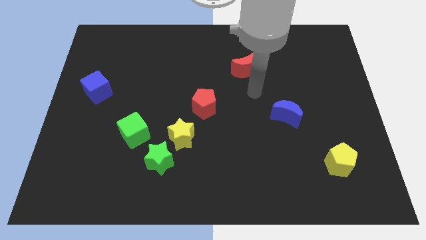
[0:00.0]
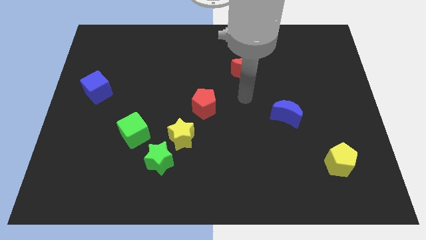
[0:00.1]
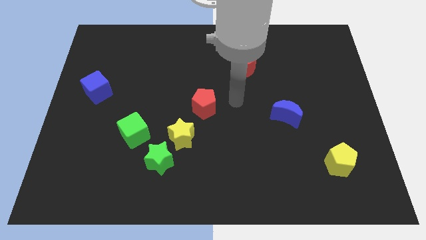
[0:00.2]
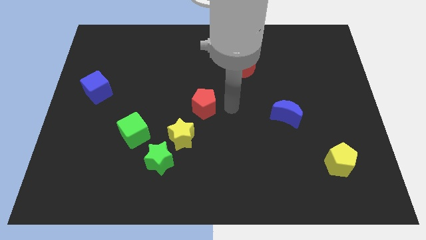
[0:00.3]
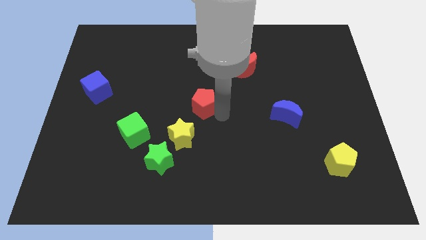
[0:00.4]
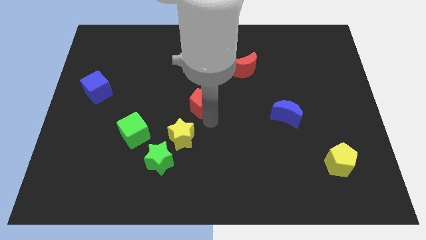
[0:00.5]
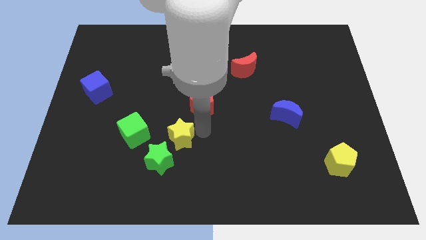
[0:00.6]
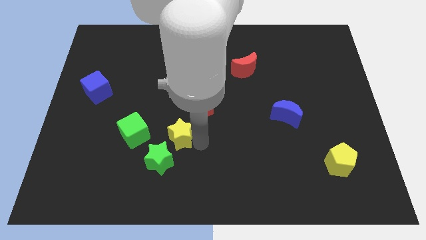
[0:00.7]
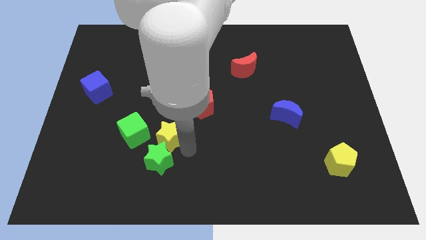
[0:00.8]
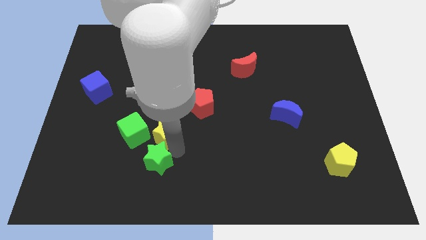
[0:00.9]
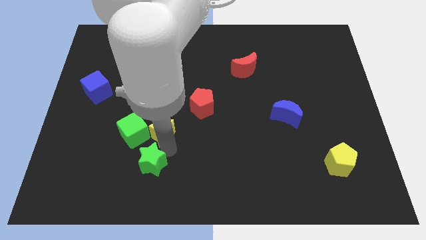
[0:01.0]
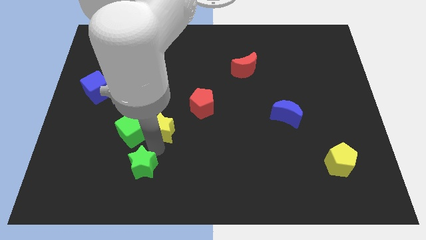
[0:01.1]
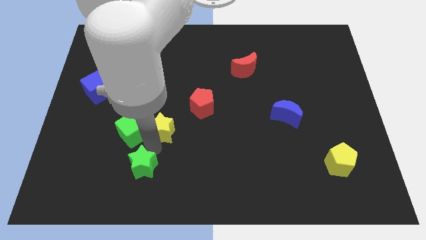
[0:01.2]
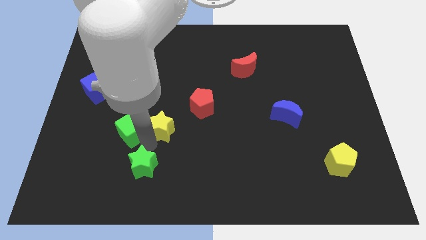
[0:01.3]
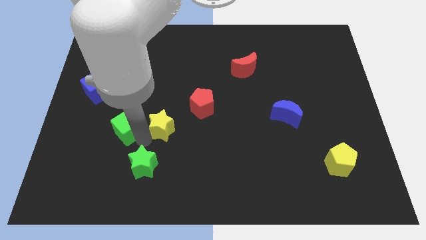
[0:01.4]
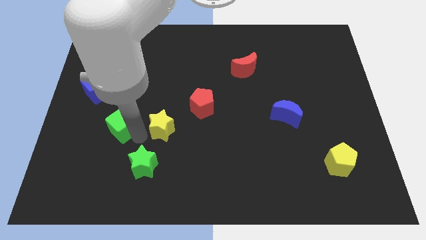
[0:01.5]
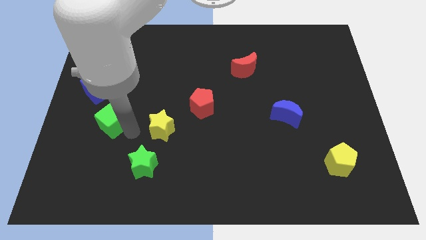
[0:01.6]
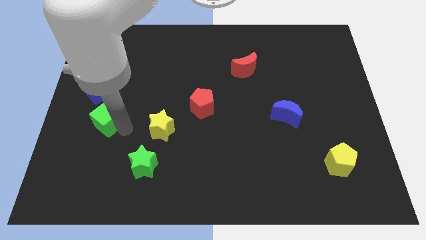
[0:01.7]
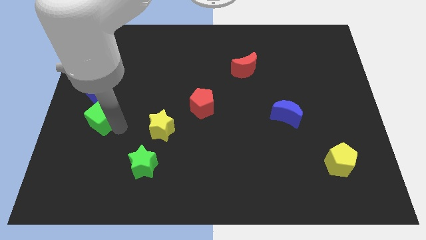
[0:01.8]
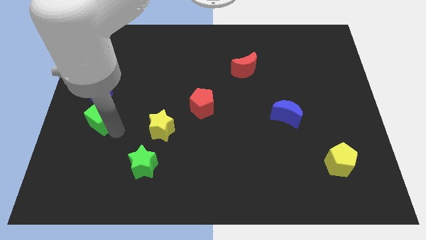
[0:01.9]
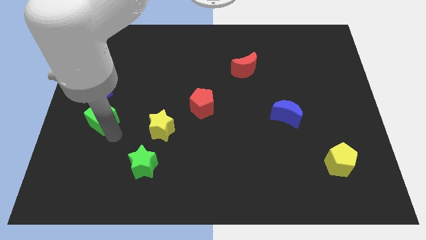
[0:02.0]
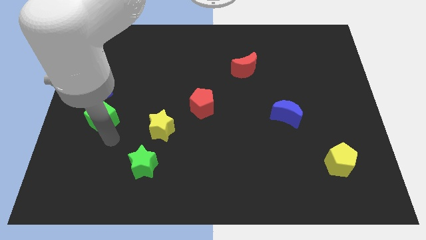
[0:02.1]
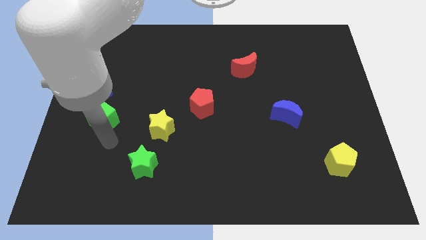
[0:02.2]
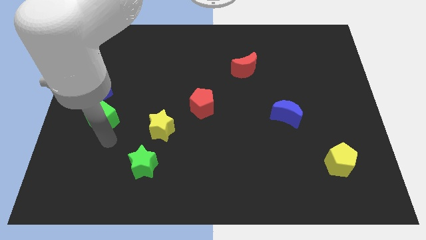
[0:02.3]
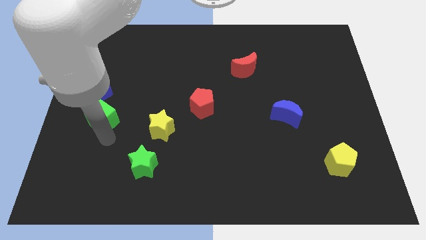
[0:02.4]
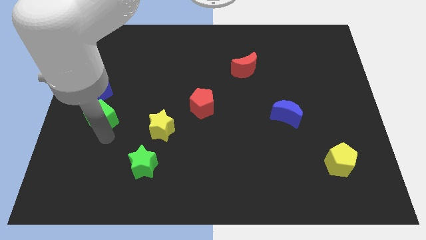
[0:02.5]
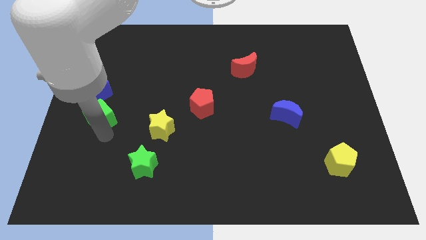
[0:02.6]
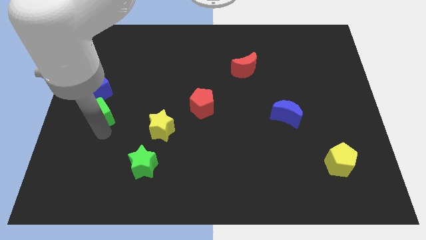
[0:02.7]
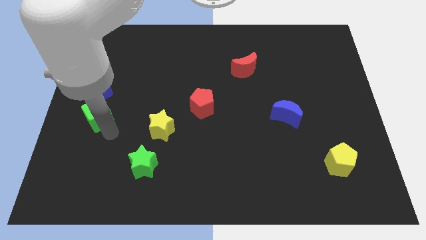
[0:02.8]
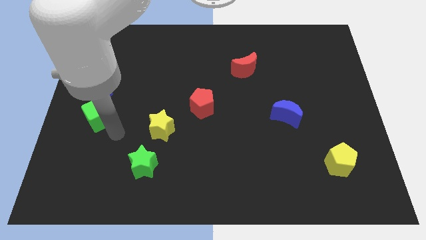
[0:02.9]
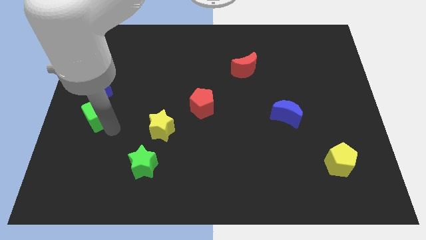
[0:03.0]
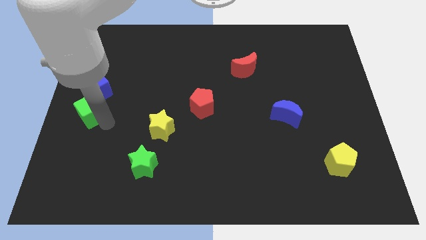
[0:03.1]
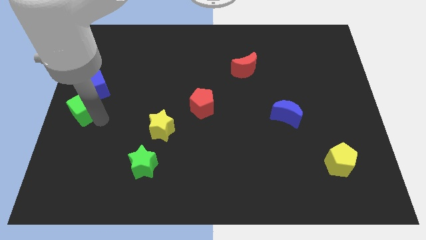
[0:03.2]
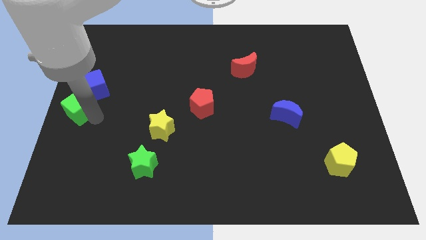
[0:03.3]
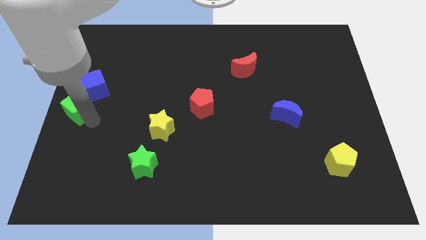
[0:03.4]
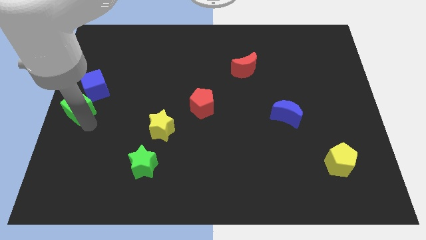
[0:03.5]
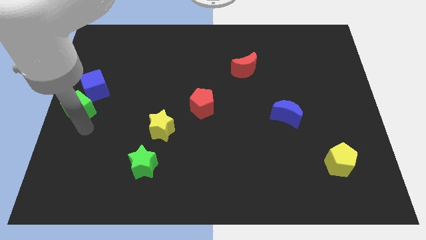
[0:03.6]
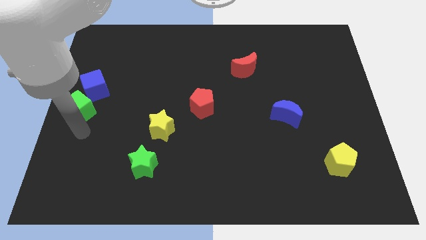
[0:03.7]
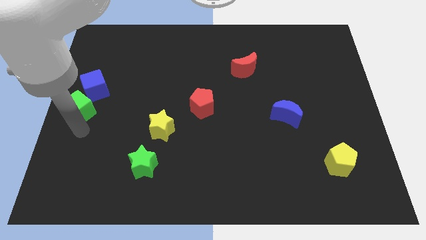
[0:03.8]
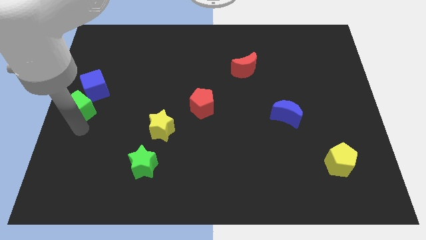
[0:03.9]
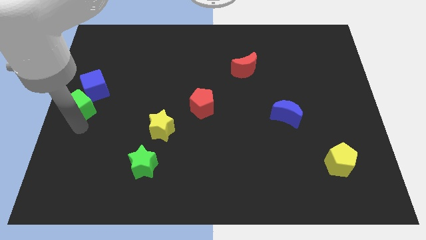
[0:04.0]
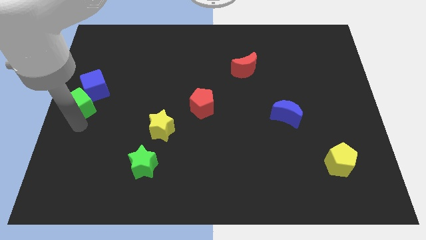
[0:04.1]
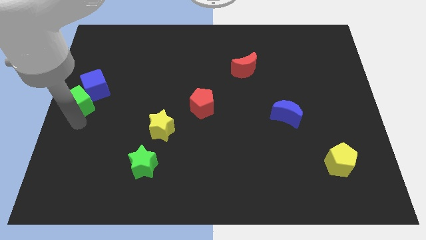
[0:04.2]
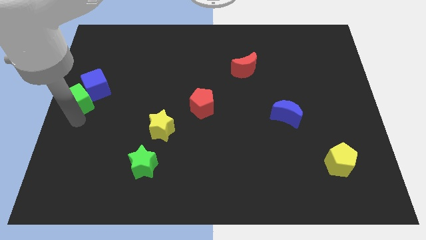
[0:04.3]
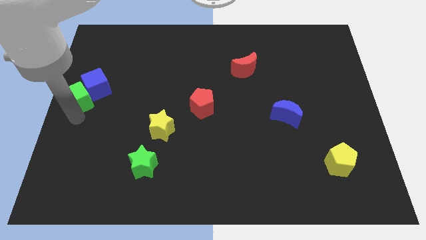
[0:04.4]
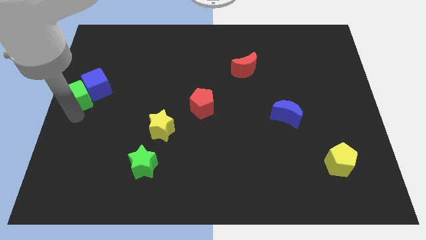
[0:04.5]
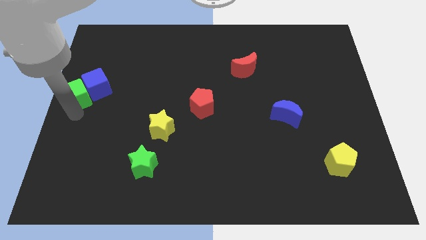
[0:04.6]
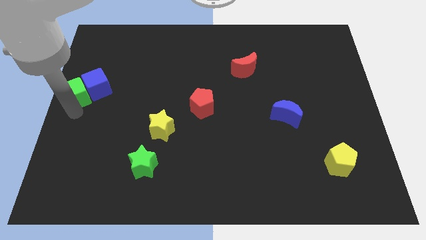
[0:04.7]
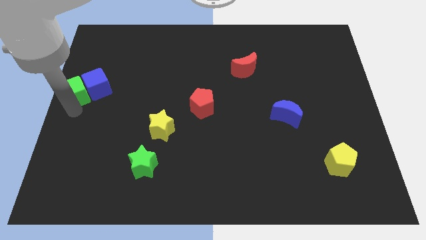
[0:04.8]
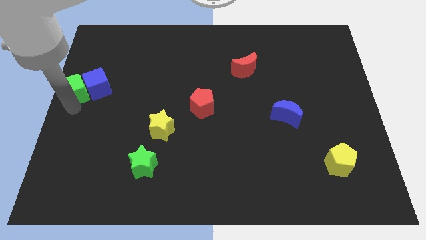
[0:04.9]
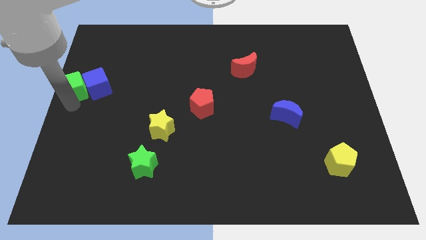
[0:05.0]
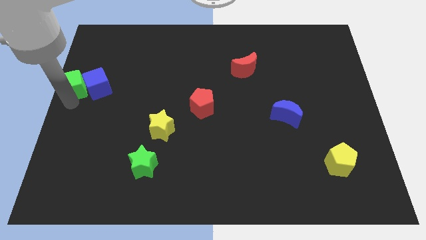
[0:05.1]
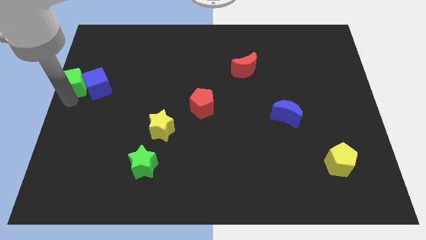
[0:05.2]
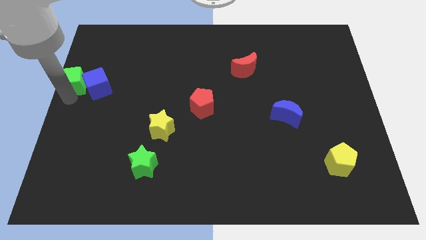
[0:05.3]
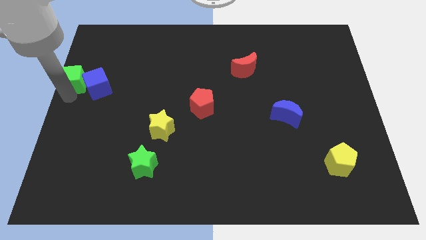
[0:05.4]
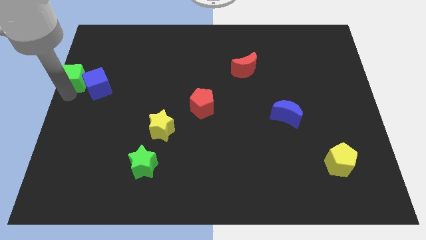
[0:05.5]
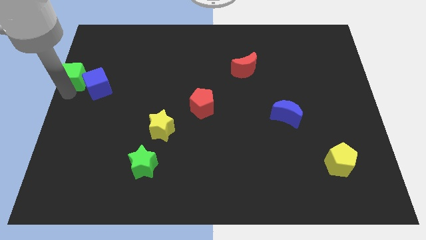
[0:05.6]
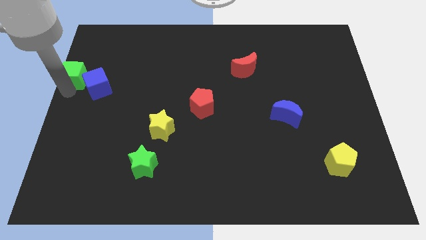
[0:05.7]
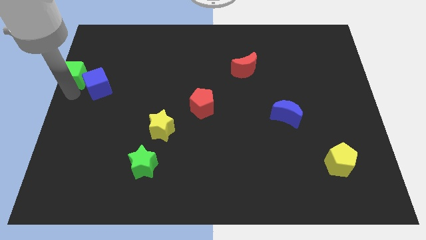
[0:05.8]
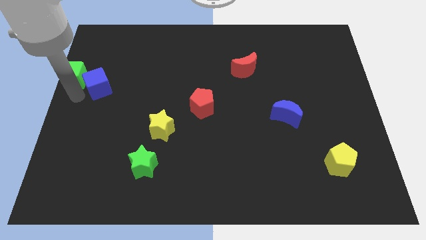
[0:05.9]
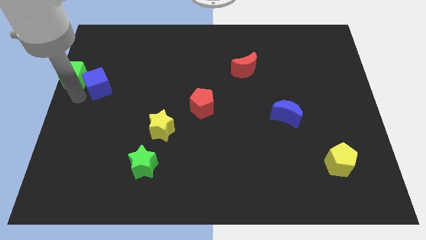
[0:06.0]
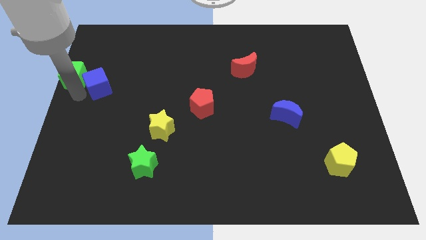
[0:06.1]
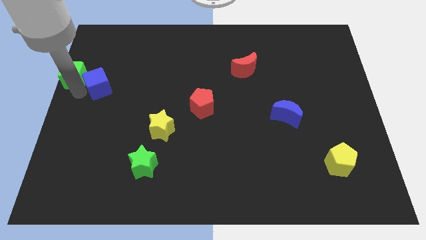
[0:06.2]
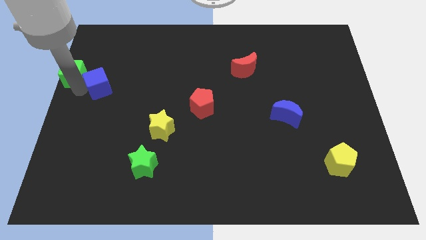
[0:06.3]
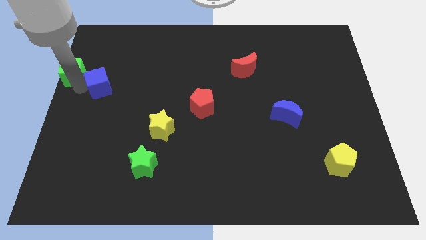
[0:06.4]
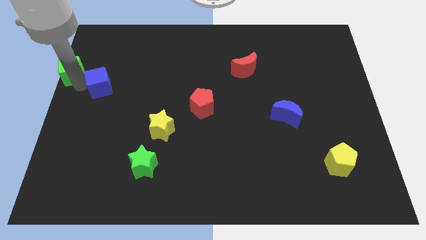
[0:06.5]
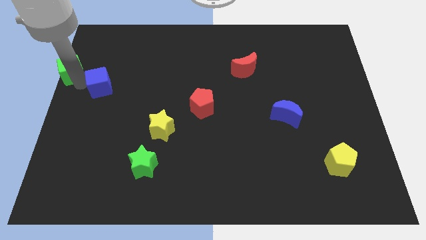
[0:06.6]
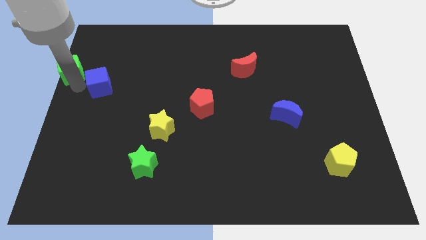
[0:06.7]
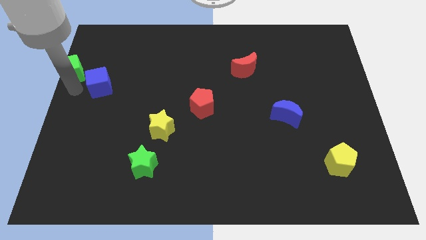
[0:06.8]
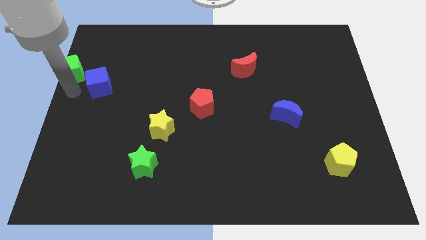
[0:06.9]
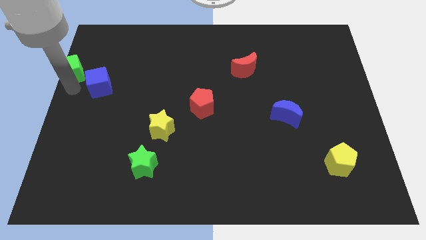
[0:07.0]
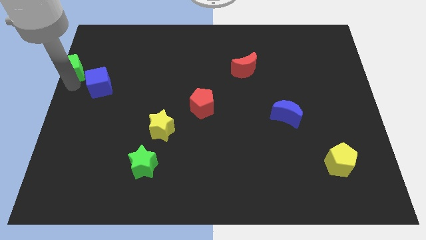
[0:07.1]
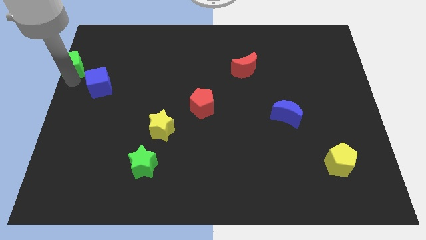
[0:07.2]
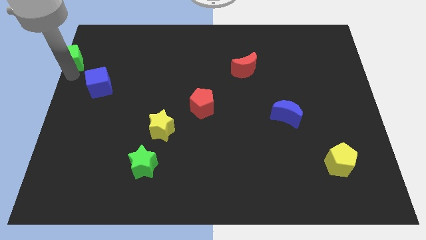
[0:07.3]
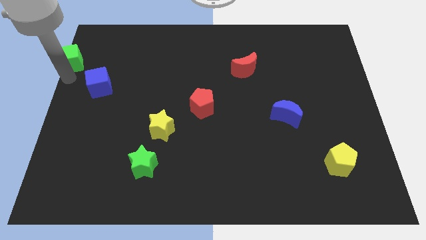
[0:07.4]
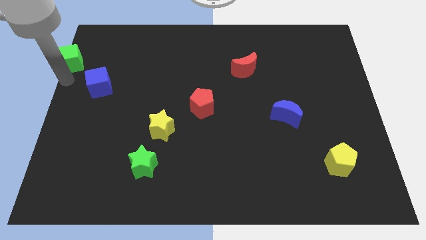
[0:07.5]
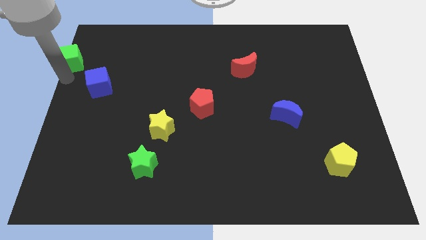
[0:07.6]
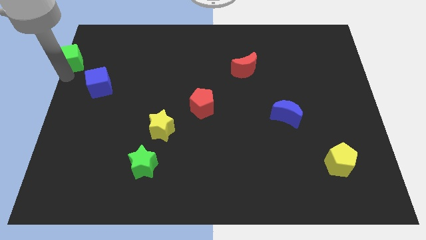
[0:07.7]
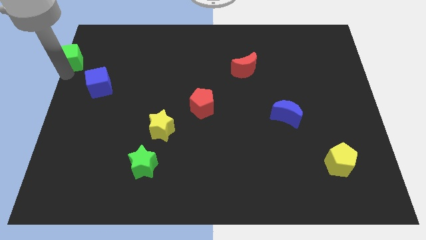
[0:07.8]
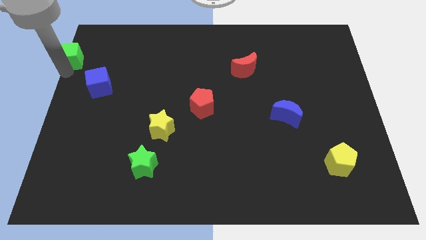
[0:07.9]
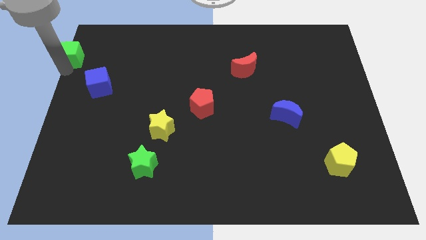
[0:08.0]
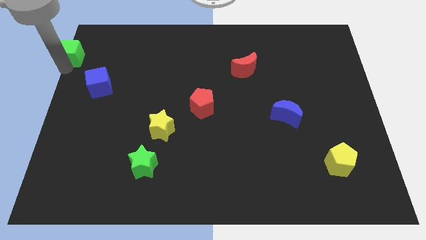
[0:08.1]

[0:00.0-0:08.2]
push the green cube to the top left corner
